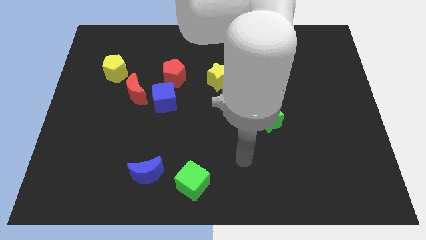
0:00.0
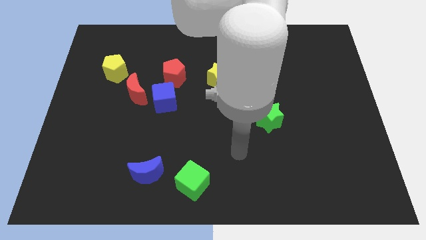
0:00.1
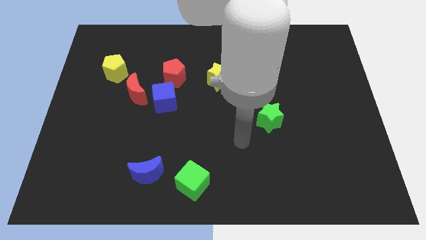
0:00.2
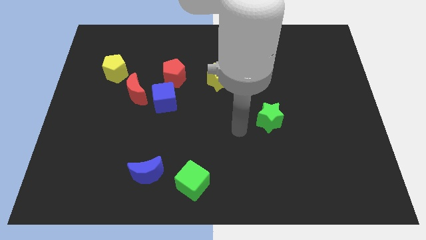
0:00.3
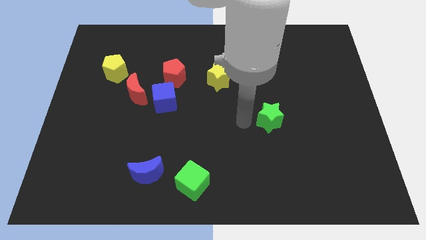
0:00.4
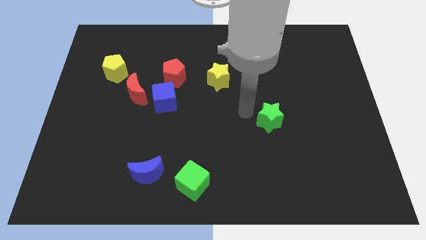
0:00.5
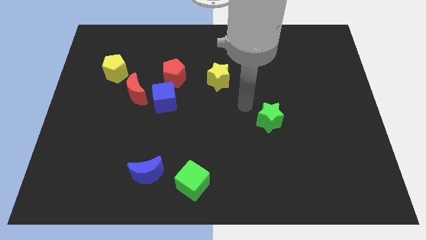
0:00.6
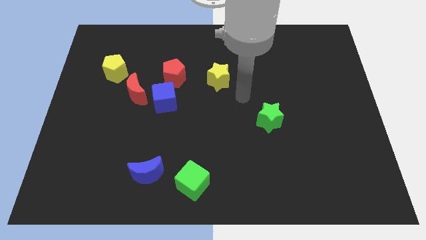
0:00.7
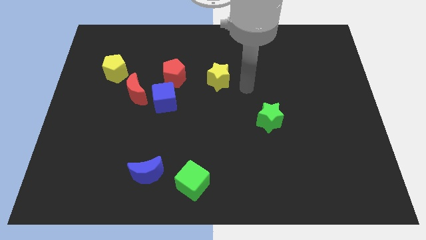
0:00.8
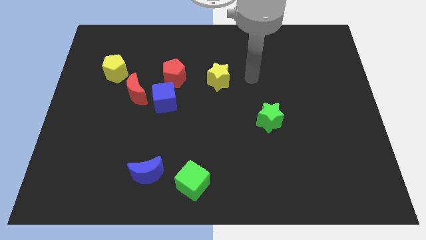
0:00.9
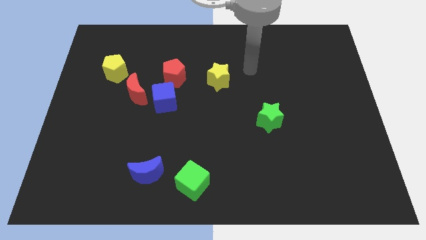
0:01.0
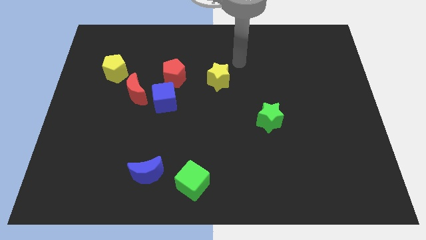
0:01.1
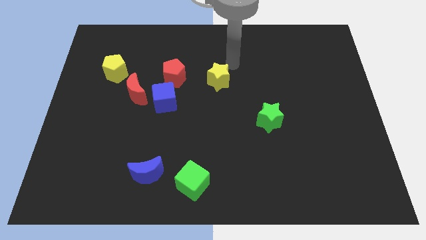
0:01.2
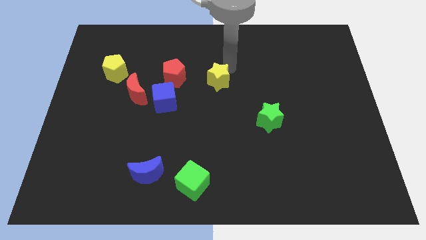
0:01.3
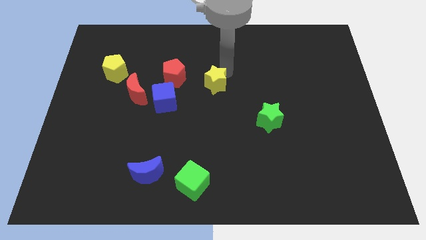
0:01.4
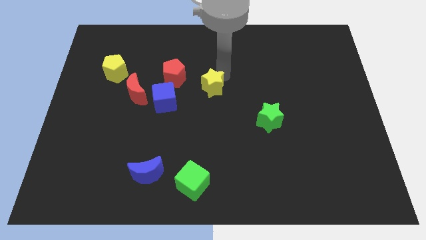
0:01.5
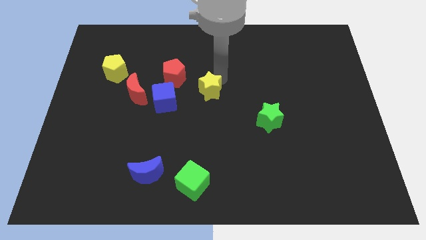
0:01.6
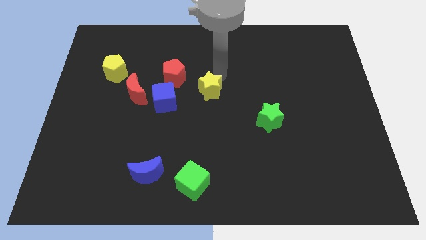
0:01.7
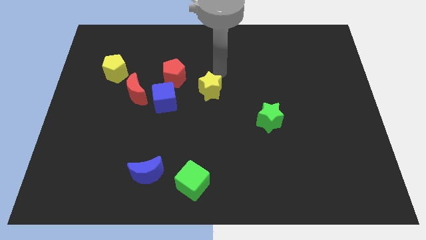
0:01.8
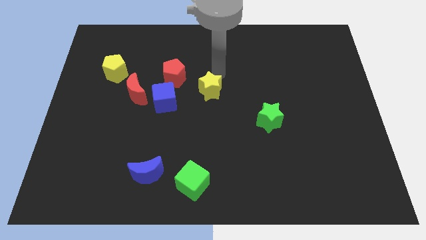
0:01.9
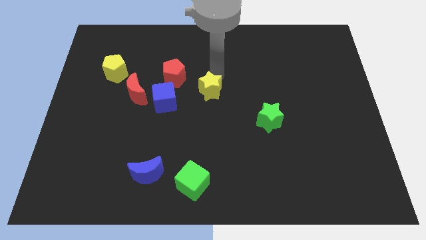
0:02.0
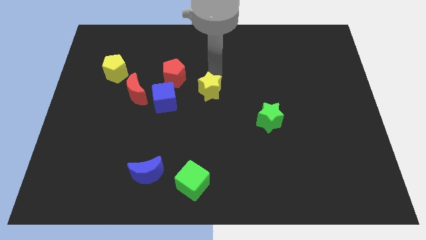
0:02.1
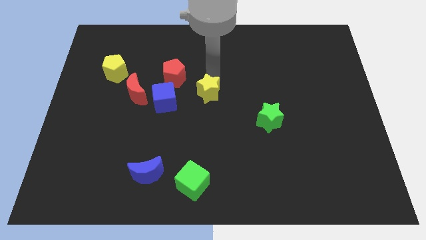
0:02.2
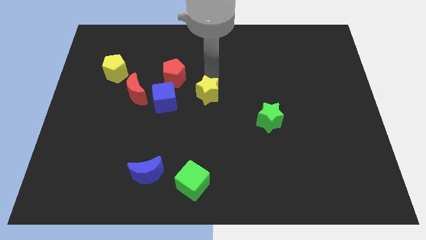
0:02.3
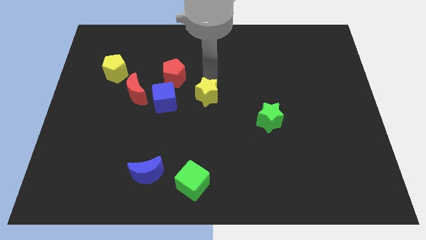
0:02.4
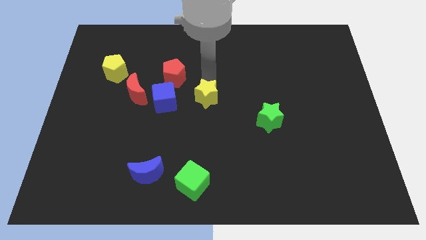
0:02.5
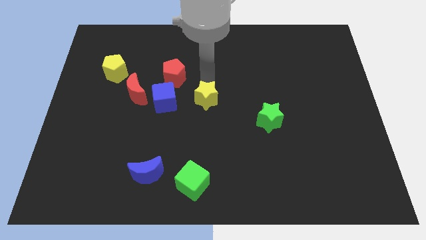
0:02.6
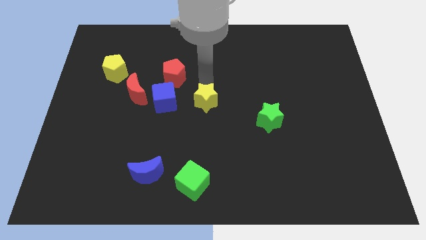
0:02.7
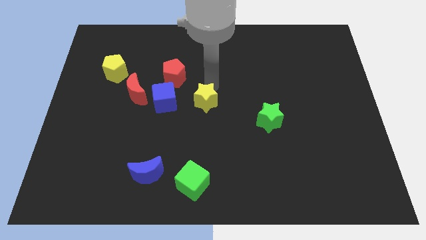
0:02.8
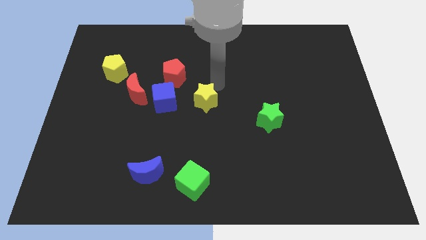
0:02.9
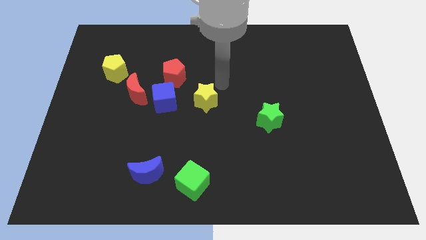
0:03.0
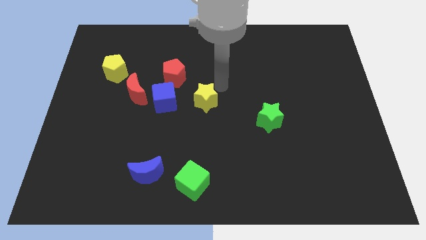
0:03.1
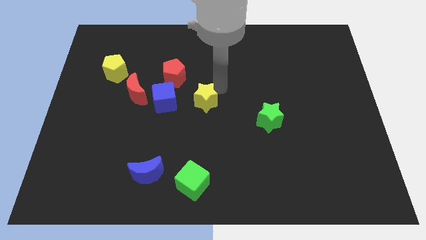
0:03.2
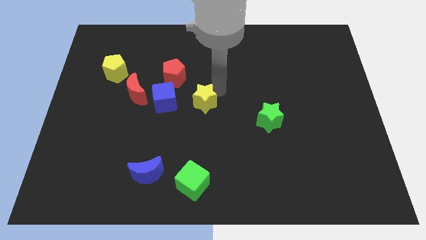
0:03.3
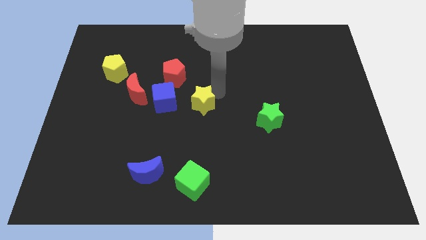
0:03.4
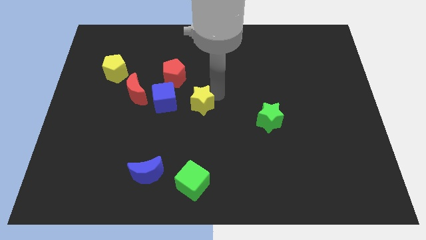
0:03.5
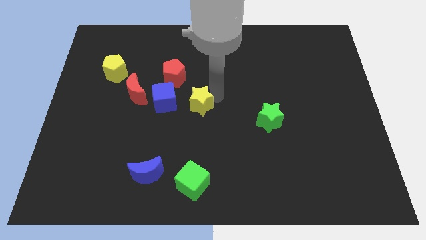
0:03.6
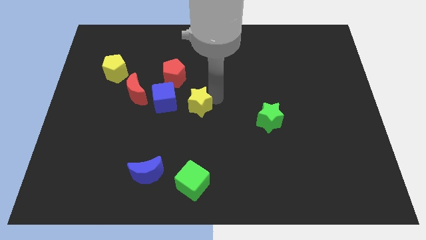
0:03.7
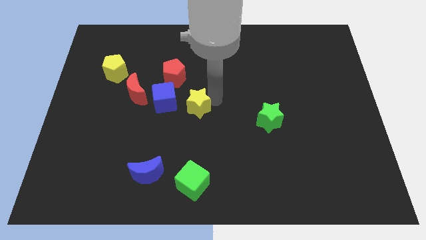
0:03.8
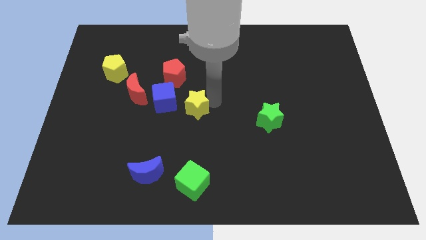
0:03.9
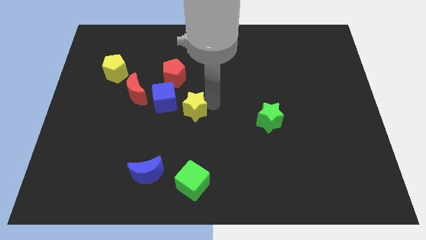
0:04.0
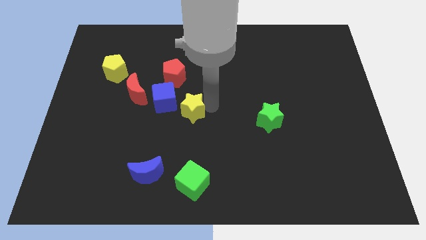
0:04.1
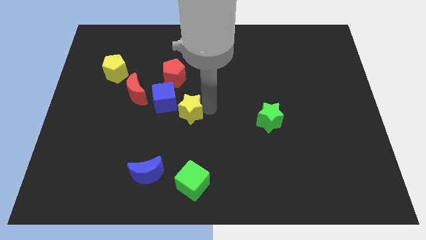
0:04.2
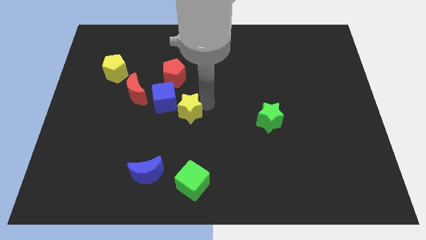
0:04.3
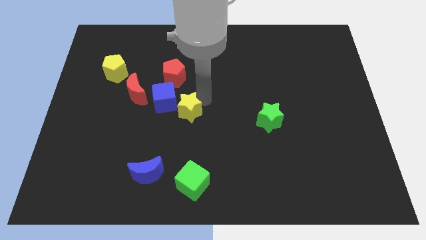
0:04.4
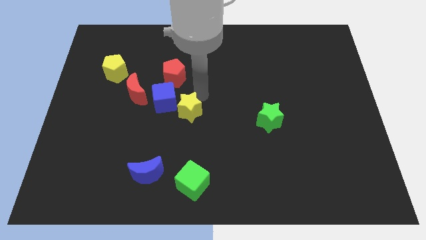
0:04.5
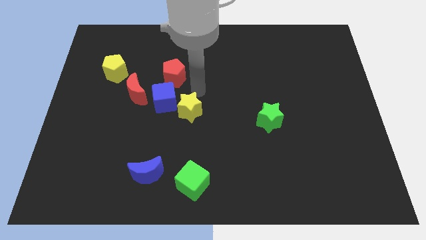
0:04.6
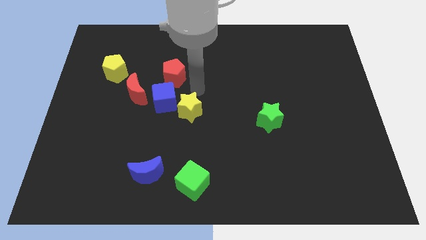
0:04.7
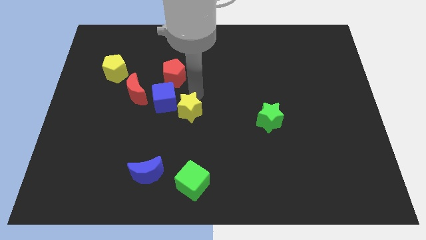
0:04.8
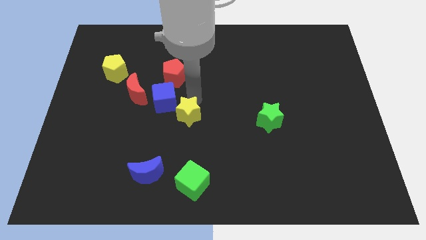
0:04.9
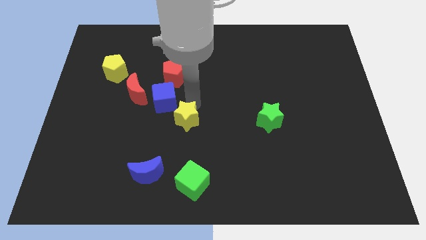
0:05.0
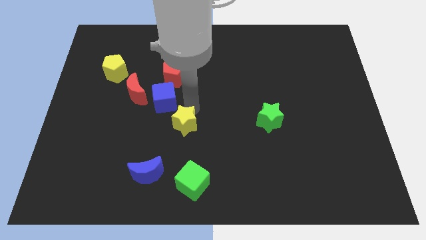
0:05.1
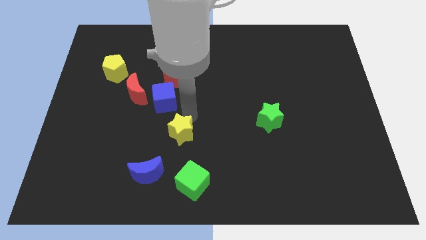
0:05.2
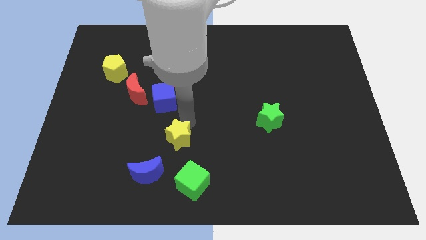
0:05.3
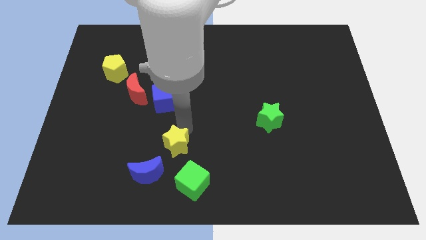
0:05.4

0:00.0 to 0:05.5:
slide the yellow star diagonally up and to the left of the green cube

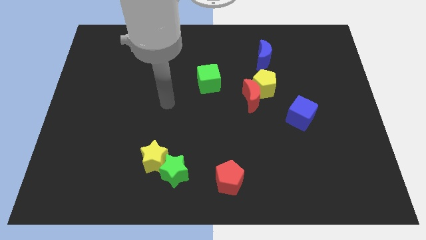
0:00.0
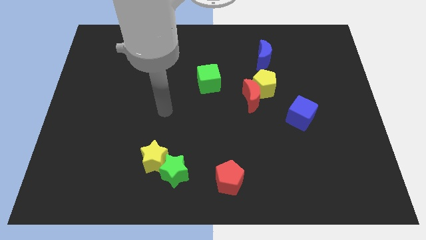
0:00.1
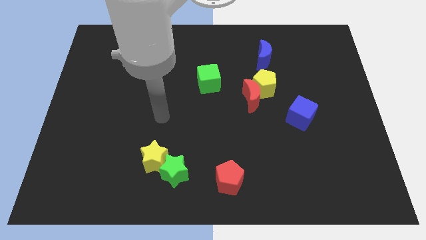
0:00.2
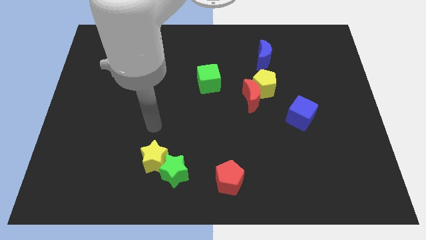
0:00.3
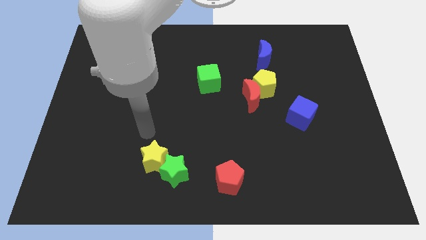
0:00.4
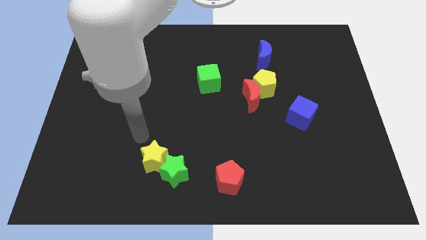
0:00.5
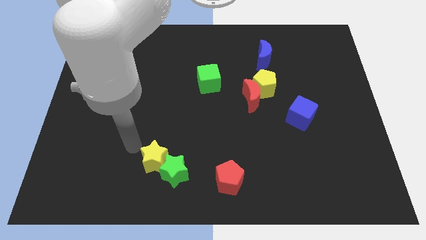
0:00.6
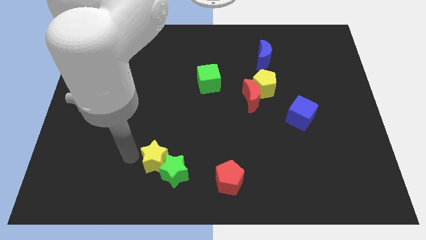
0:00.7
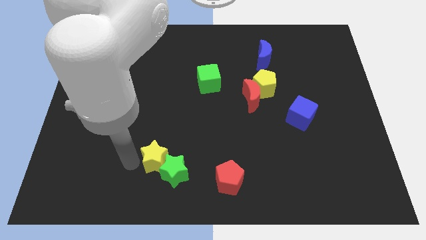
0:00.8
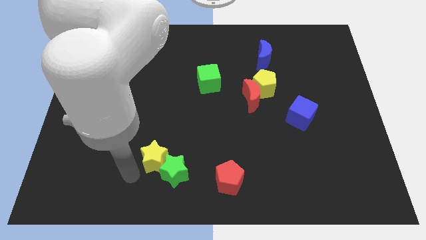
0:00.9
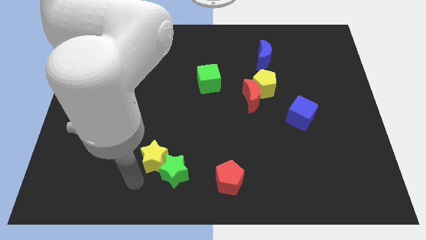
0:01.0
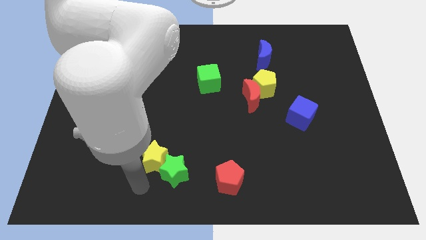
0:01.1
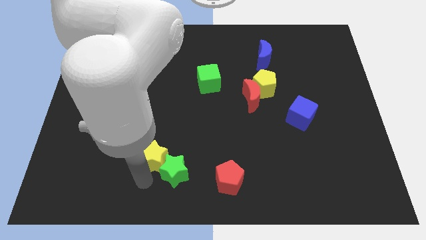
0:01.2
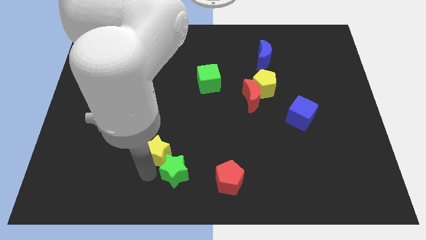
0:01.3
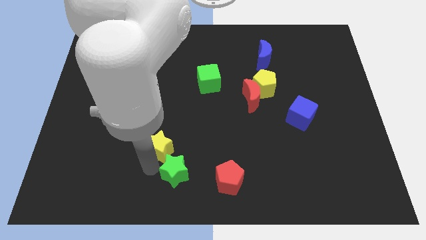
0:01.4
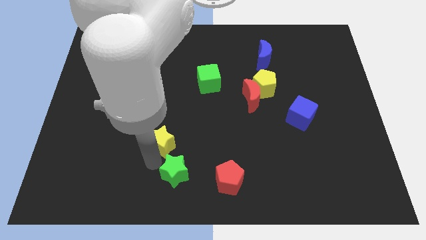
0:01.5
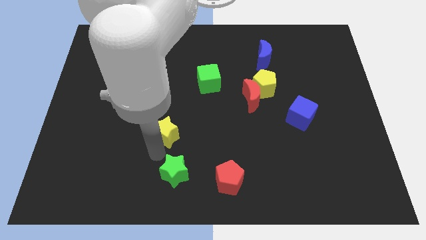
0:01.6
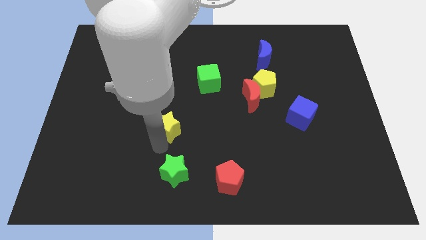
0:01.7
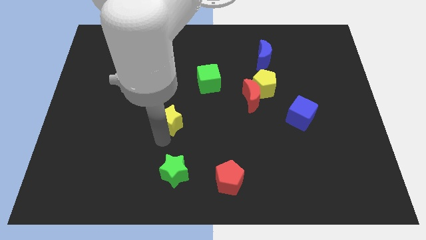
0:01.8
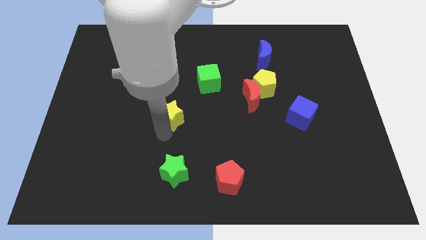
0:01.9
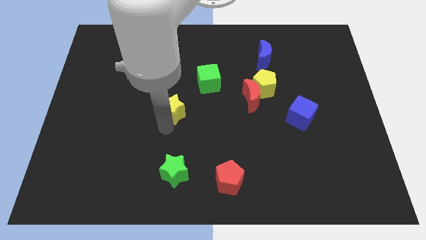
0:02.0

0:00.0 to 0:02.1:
put the yellow star to the bottom left of the green cube
